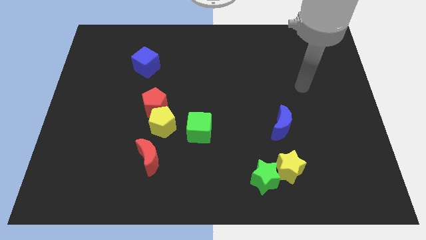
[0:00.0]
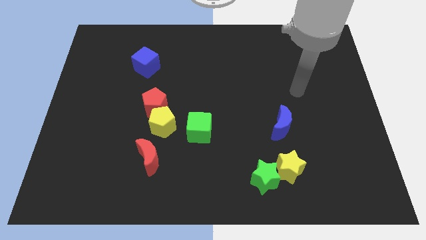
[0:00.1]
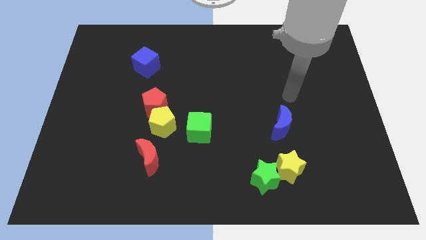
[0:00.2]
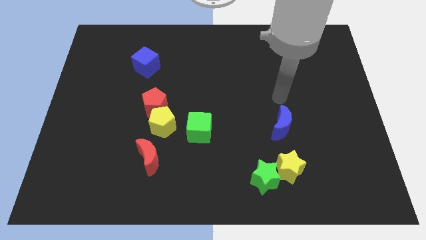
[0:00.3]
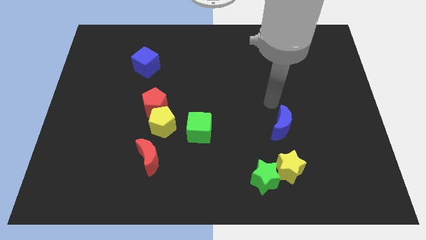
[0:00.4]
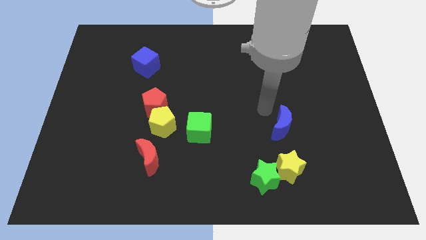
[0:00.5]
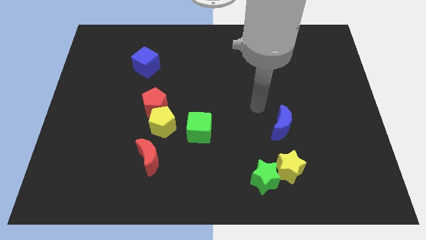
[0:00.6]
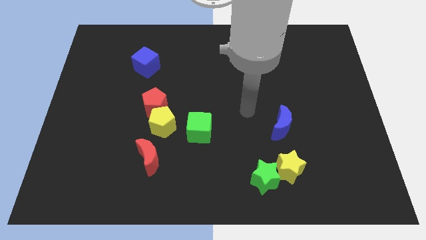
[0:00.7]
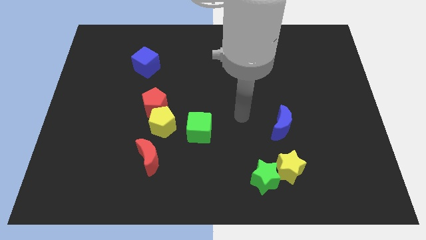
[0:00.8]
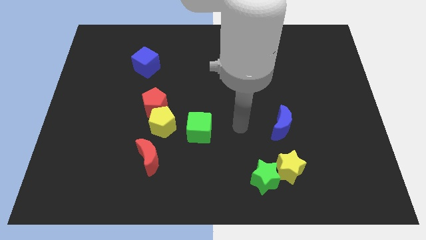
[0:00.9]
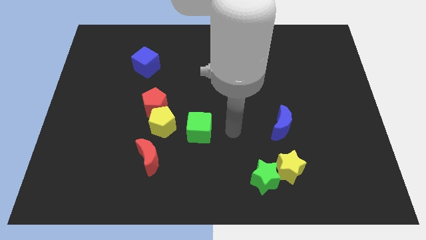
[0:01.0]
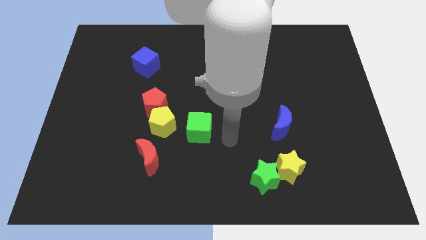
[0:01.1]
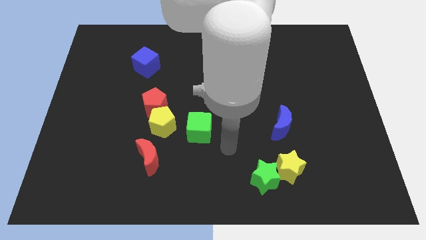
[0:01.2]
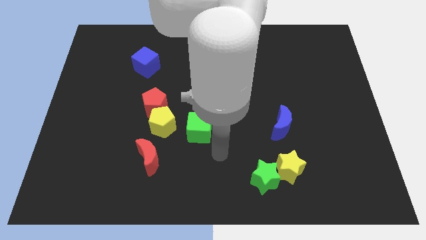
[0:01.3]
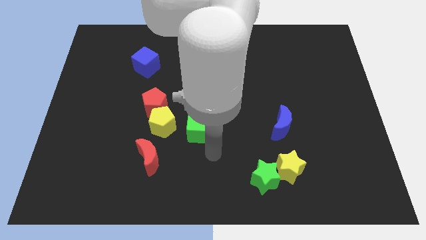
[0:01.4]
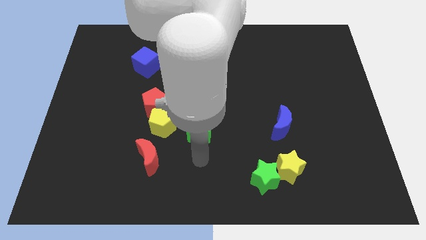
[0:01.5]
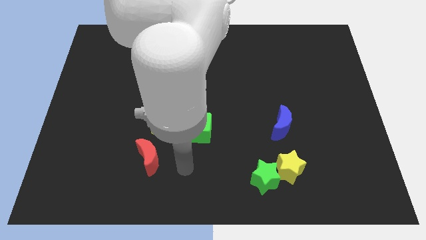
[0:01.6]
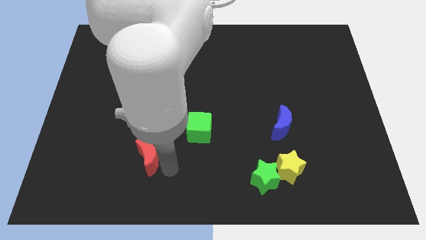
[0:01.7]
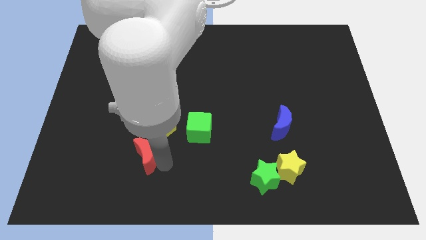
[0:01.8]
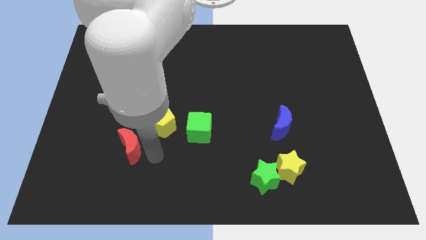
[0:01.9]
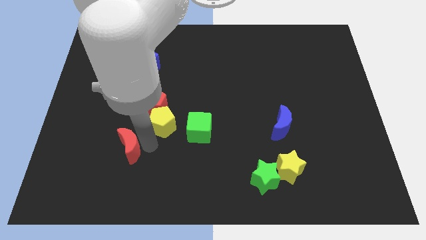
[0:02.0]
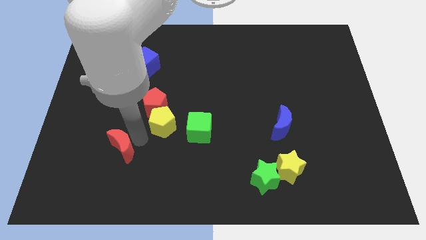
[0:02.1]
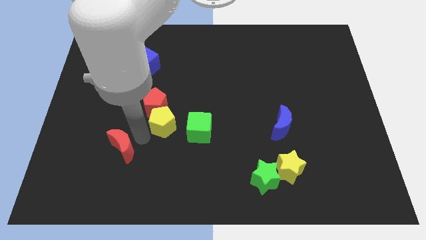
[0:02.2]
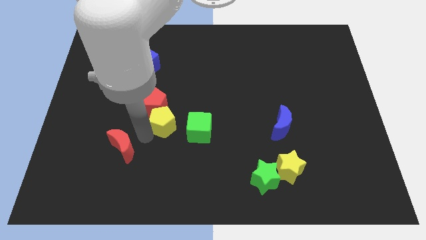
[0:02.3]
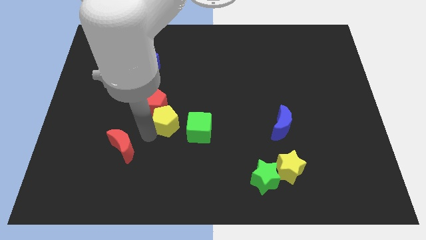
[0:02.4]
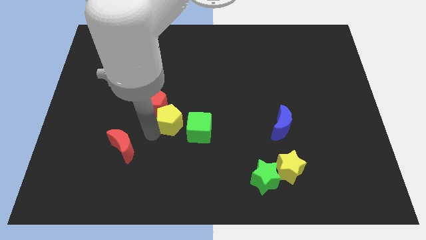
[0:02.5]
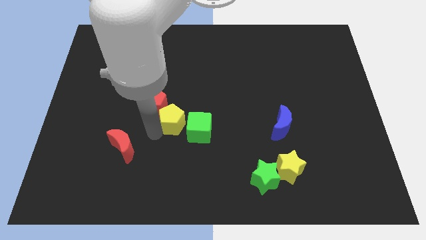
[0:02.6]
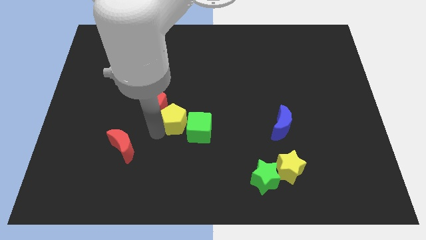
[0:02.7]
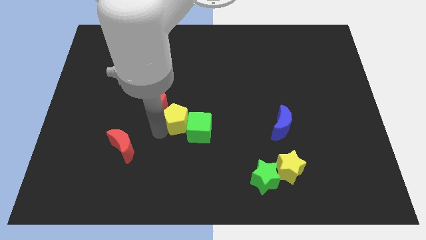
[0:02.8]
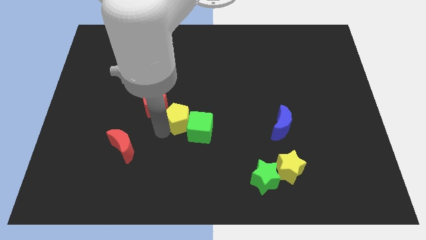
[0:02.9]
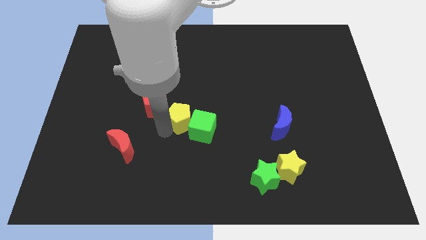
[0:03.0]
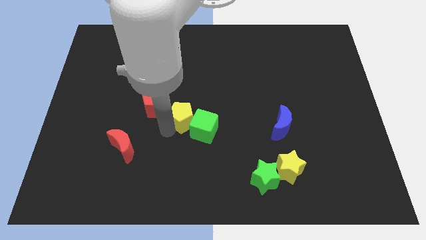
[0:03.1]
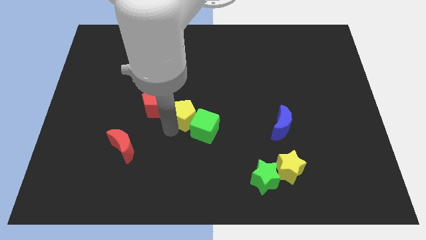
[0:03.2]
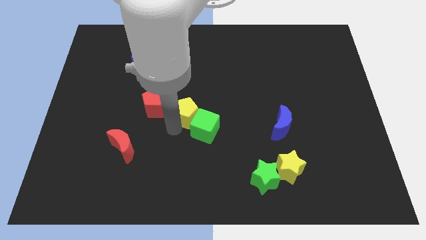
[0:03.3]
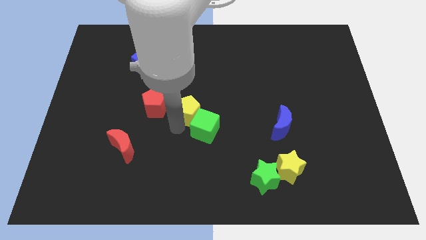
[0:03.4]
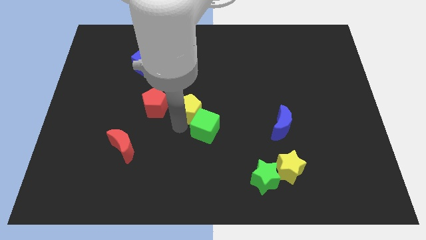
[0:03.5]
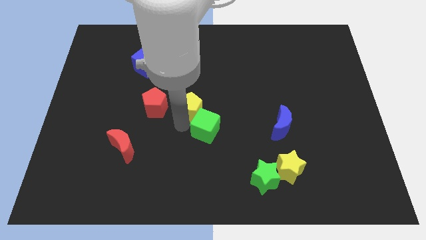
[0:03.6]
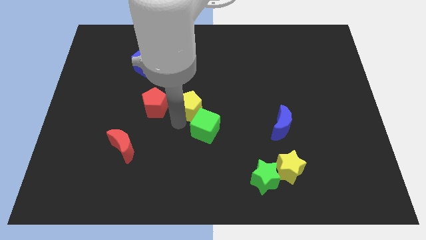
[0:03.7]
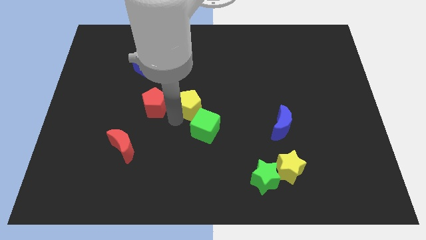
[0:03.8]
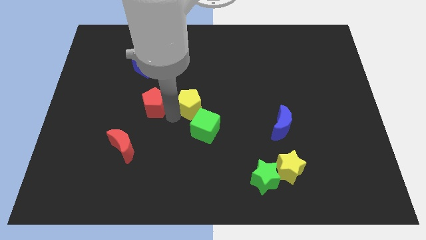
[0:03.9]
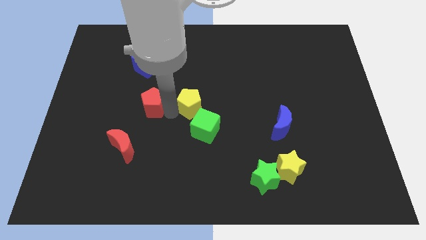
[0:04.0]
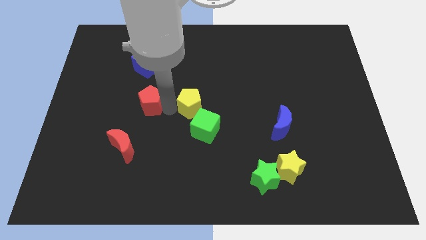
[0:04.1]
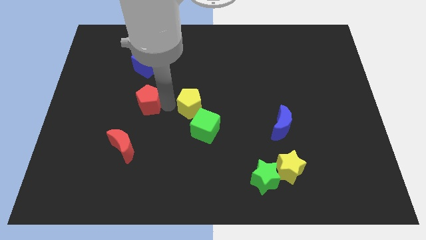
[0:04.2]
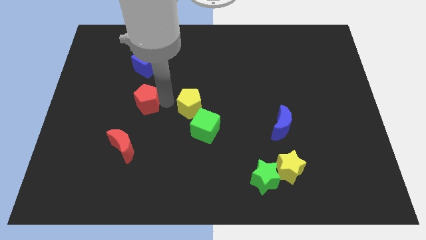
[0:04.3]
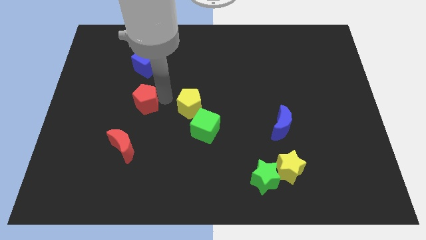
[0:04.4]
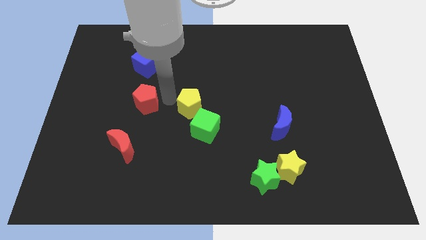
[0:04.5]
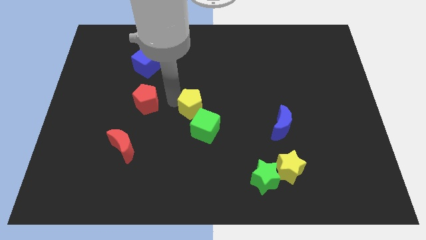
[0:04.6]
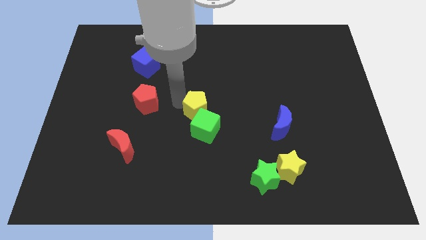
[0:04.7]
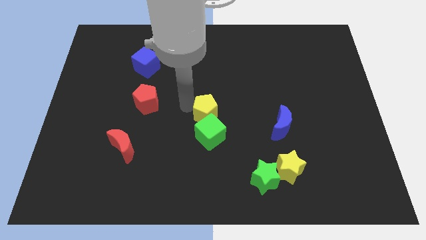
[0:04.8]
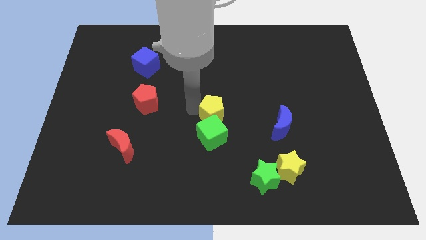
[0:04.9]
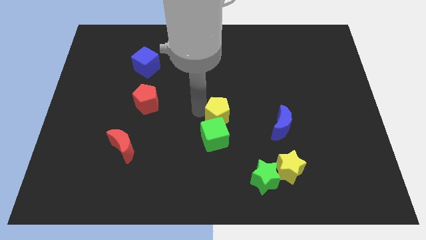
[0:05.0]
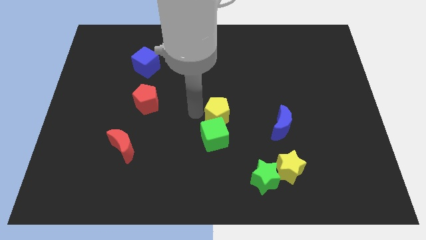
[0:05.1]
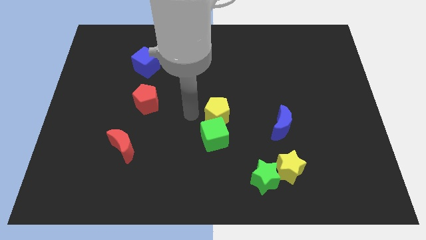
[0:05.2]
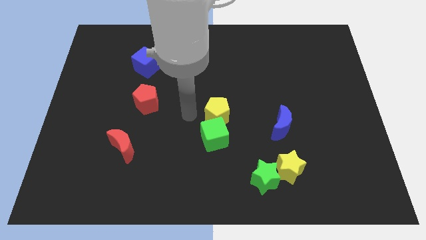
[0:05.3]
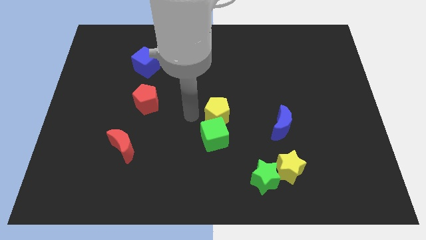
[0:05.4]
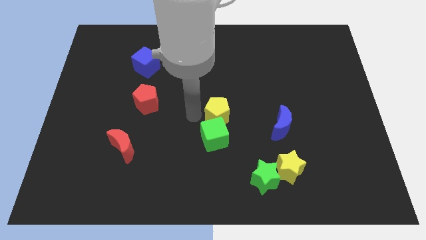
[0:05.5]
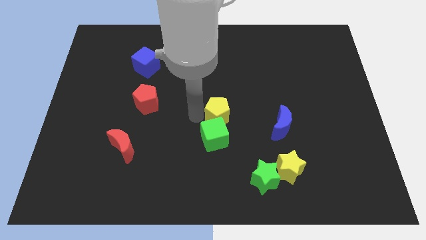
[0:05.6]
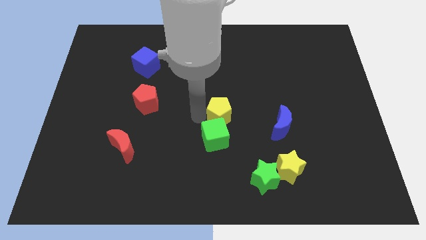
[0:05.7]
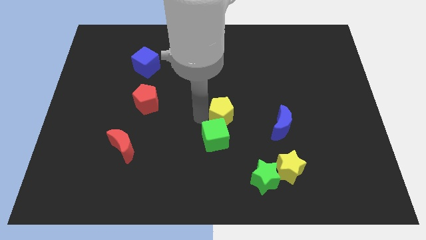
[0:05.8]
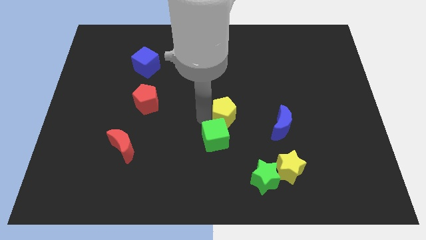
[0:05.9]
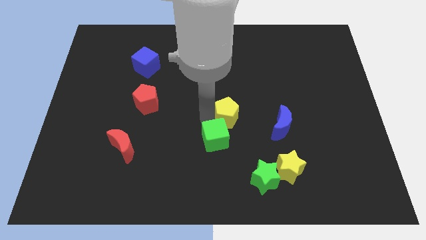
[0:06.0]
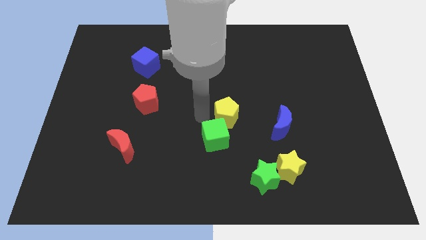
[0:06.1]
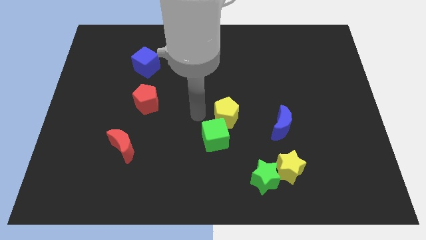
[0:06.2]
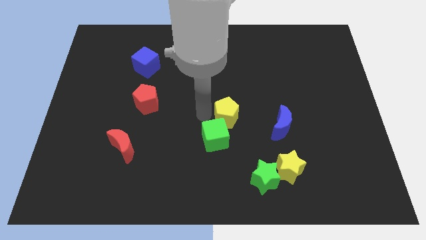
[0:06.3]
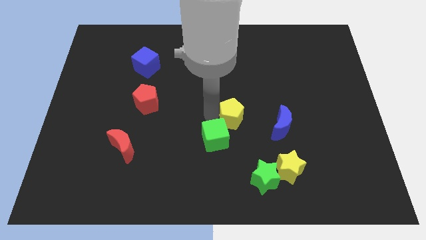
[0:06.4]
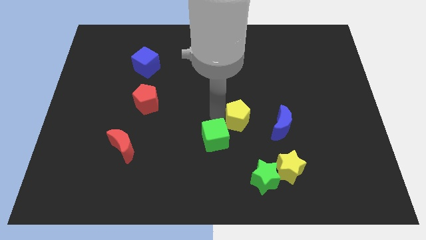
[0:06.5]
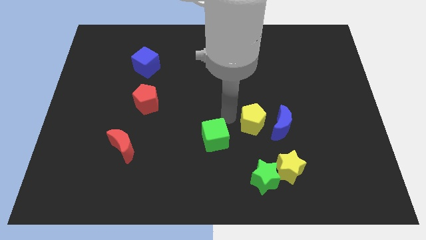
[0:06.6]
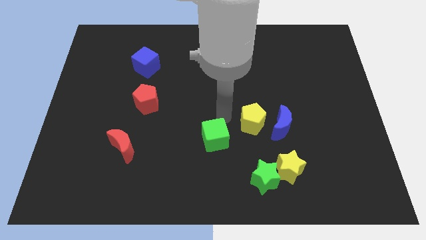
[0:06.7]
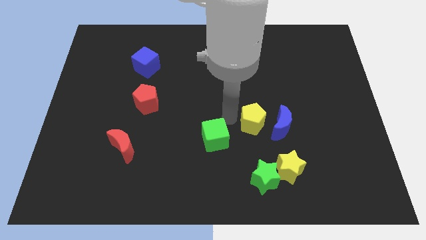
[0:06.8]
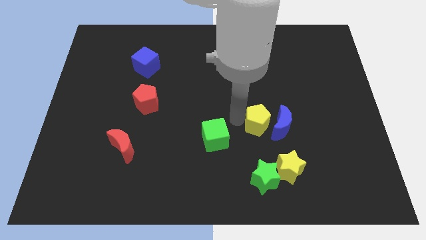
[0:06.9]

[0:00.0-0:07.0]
move the yellow pentagon next to the blue moon

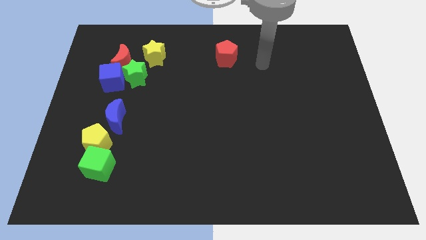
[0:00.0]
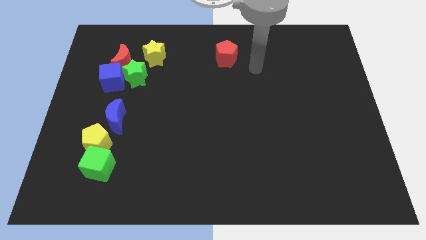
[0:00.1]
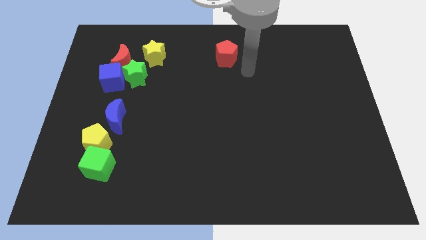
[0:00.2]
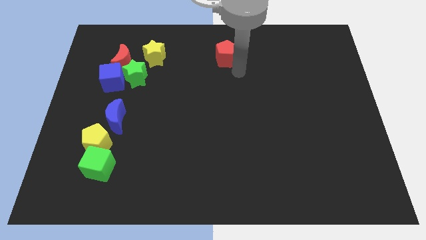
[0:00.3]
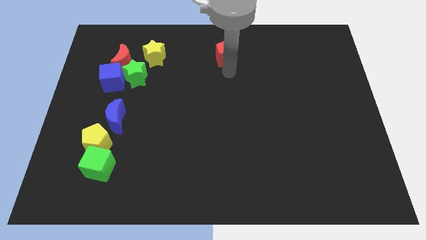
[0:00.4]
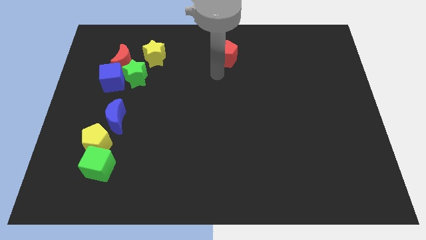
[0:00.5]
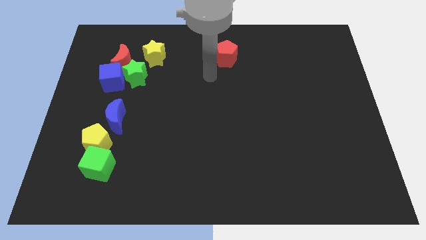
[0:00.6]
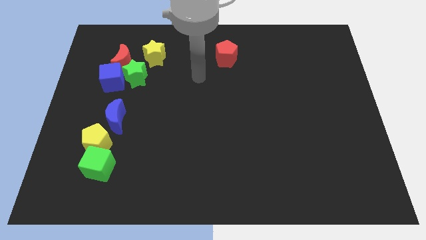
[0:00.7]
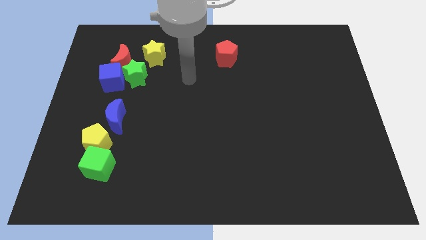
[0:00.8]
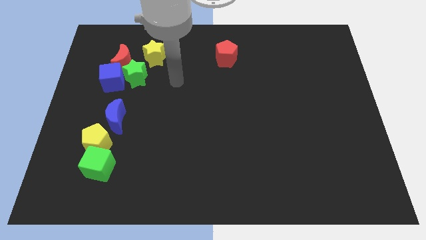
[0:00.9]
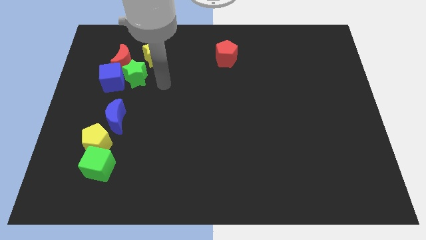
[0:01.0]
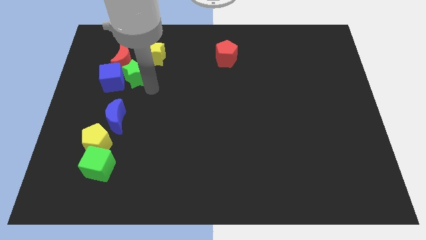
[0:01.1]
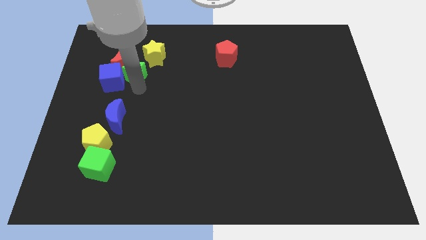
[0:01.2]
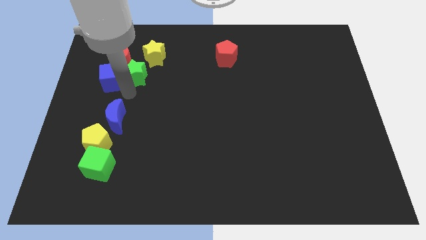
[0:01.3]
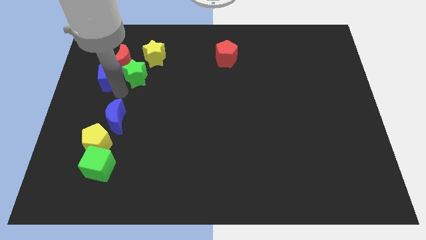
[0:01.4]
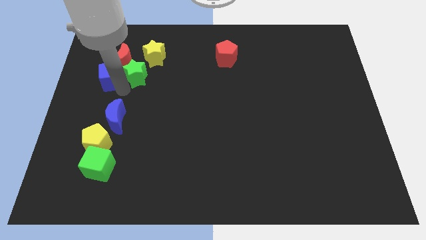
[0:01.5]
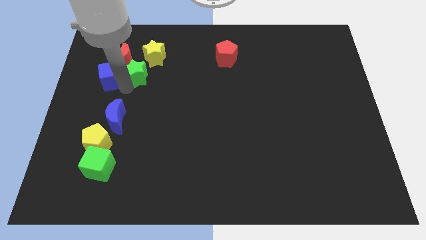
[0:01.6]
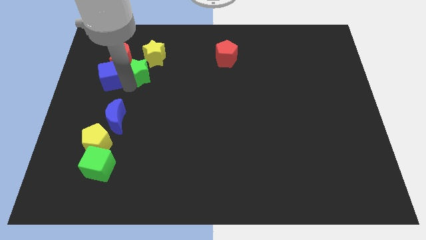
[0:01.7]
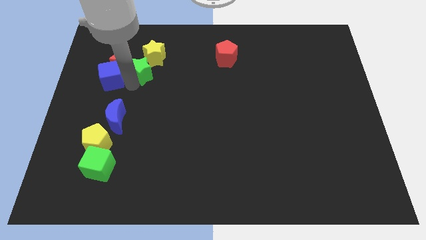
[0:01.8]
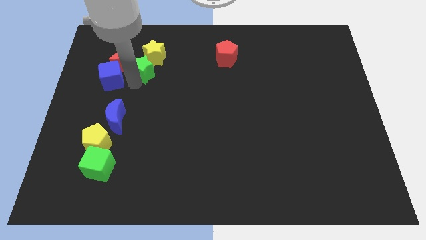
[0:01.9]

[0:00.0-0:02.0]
put the green star next to the yellow star
